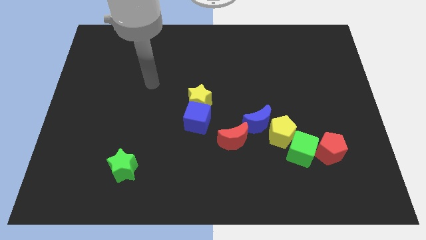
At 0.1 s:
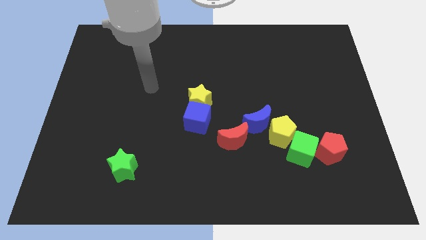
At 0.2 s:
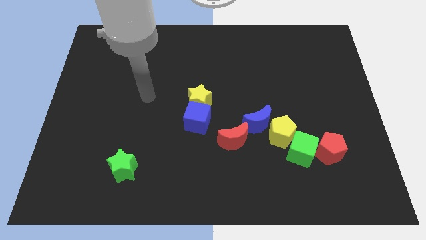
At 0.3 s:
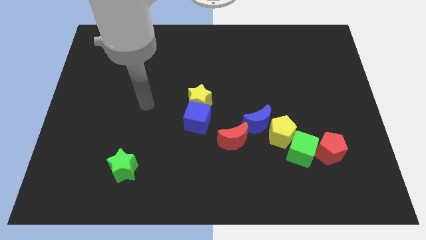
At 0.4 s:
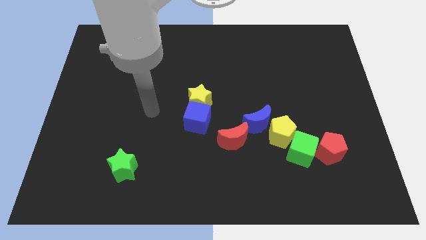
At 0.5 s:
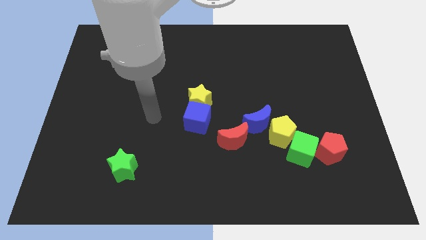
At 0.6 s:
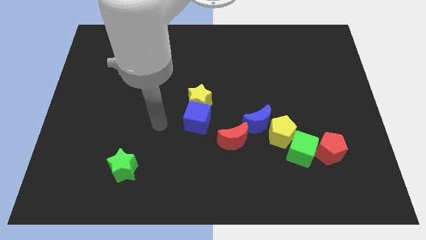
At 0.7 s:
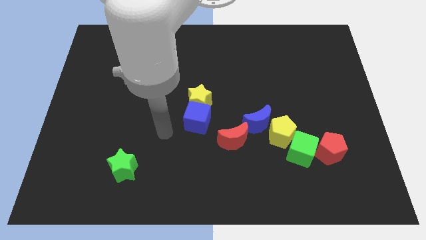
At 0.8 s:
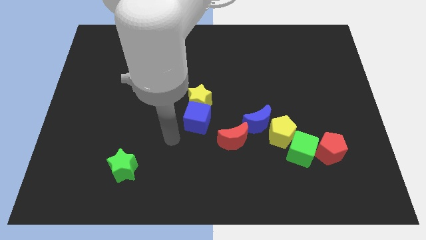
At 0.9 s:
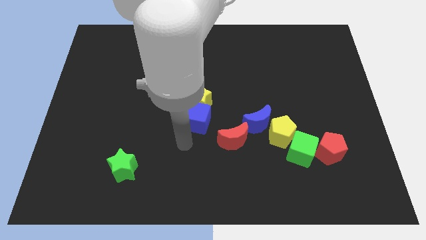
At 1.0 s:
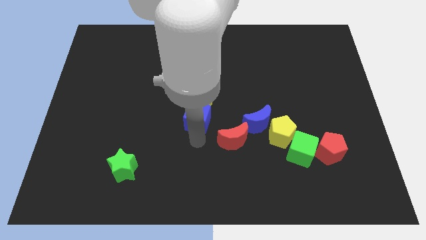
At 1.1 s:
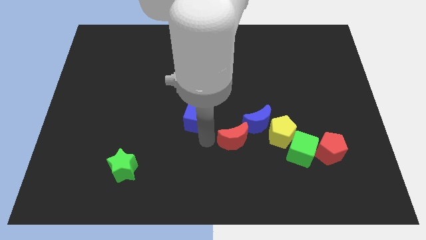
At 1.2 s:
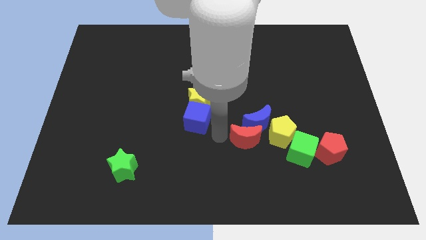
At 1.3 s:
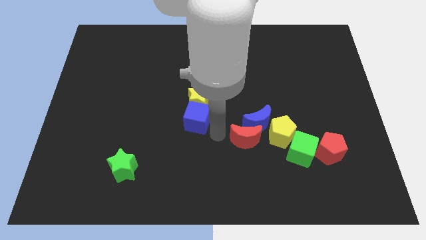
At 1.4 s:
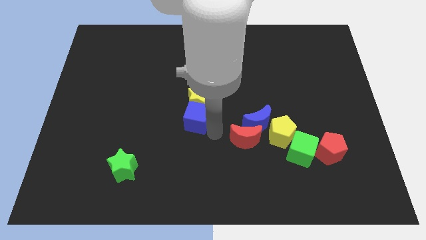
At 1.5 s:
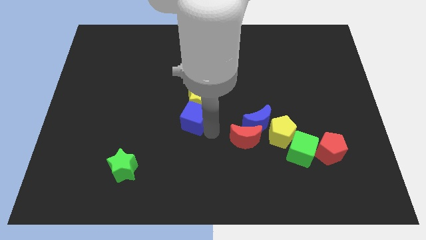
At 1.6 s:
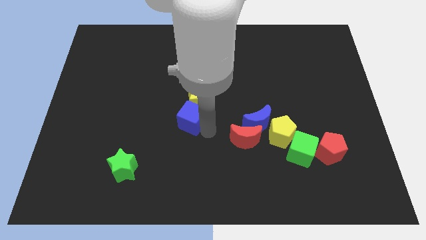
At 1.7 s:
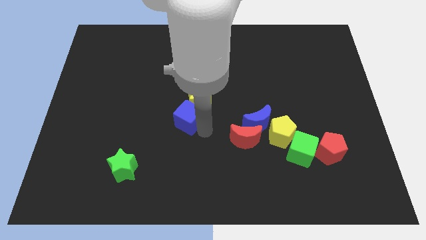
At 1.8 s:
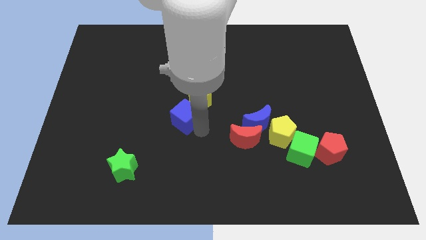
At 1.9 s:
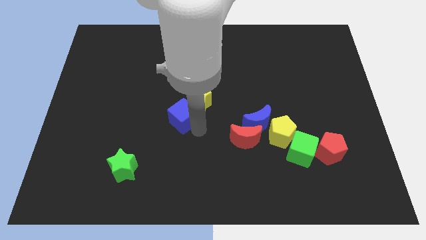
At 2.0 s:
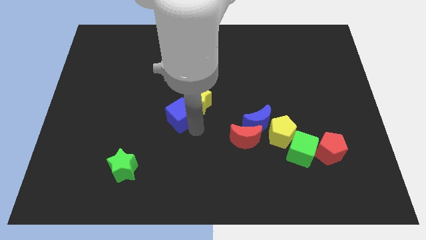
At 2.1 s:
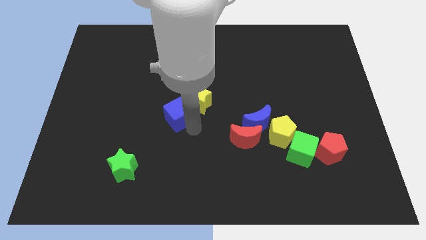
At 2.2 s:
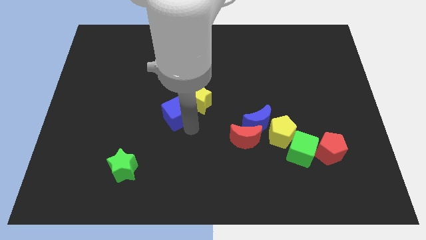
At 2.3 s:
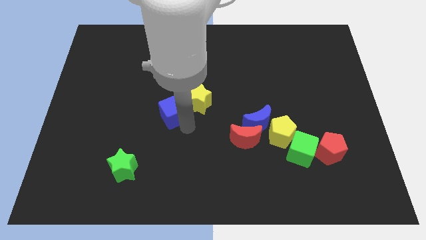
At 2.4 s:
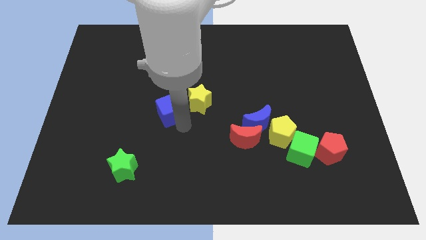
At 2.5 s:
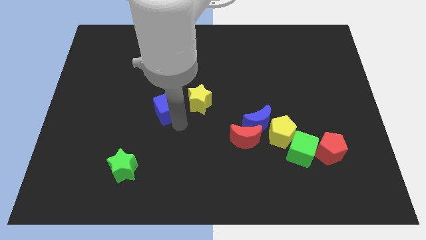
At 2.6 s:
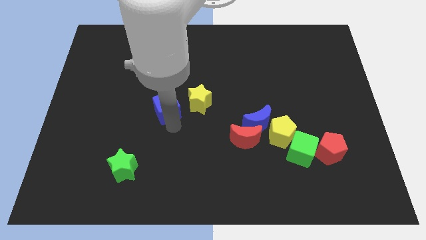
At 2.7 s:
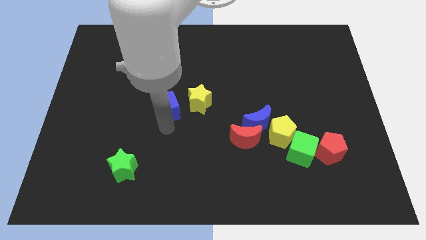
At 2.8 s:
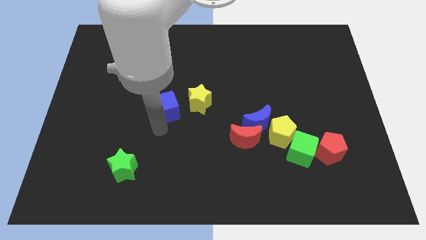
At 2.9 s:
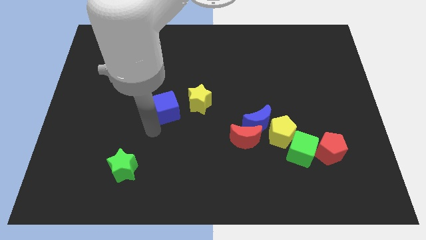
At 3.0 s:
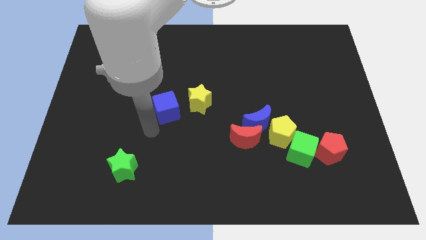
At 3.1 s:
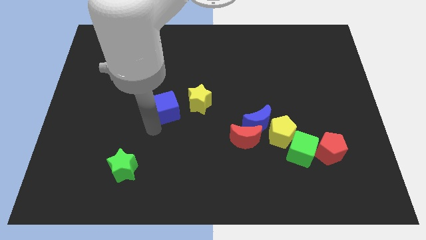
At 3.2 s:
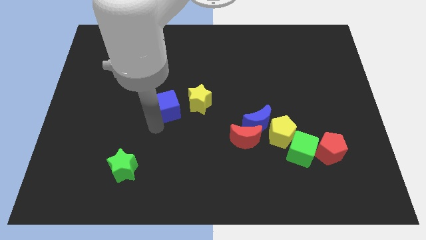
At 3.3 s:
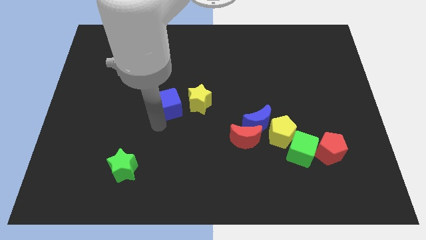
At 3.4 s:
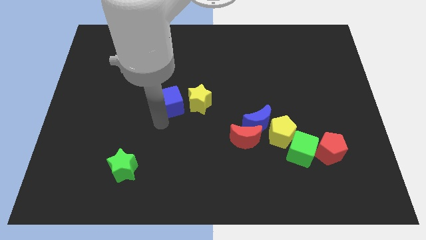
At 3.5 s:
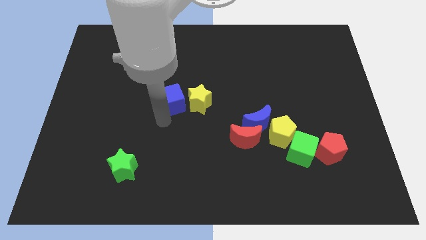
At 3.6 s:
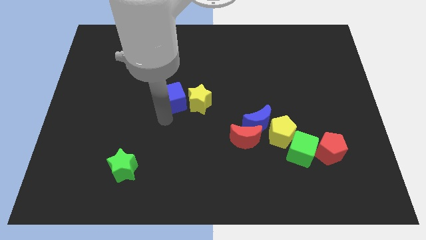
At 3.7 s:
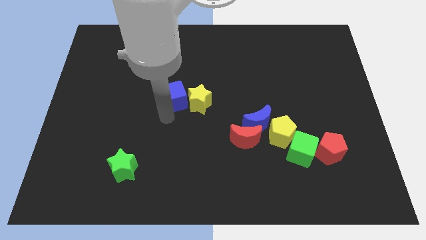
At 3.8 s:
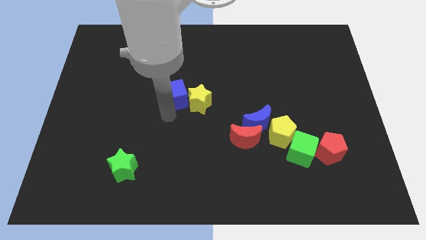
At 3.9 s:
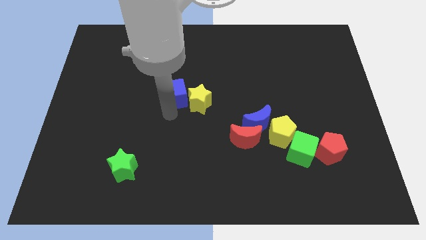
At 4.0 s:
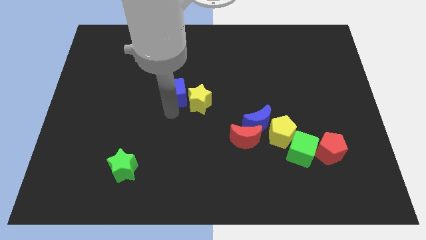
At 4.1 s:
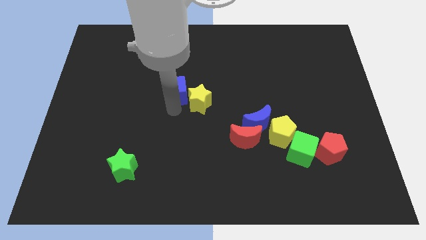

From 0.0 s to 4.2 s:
slide the blue cube a bit up

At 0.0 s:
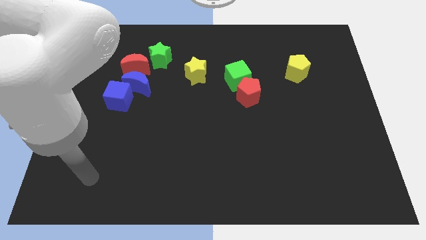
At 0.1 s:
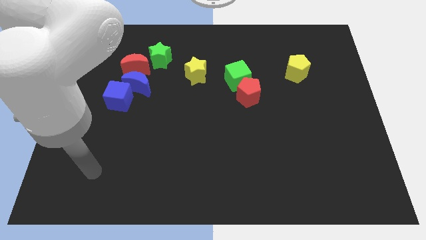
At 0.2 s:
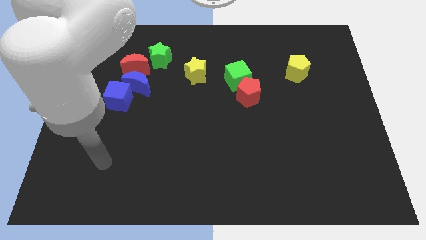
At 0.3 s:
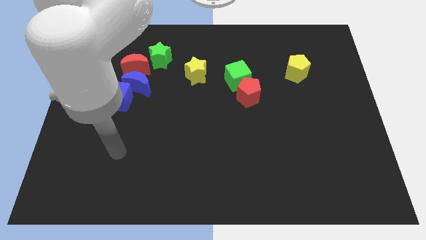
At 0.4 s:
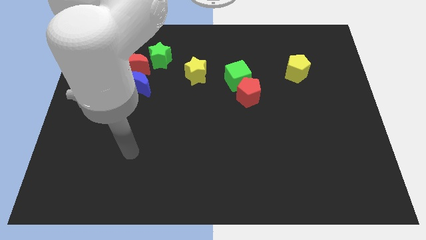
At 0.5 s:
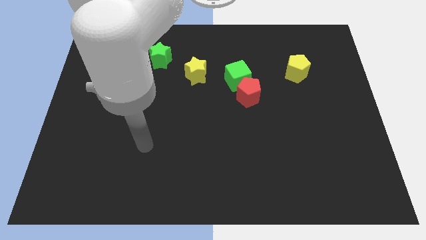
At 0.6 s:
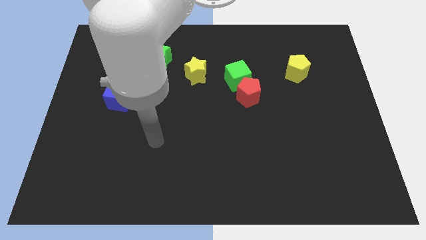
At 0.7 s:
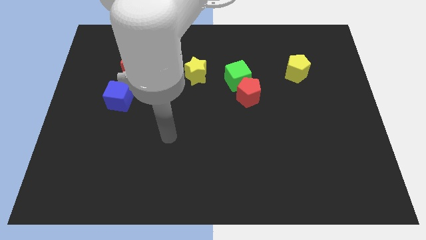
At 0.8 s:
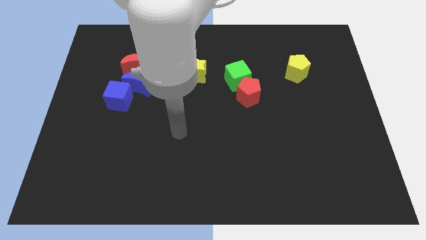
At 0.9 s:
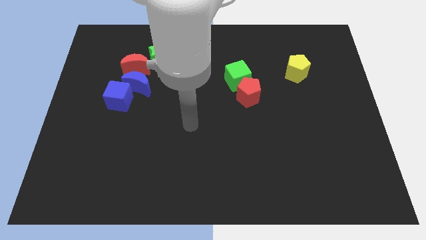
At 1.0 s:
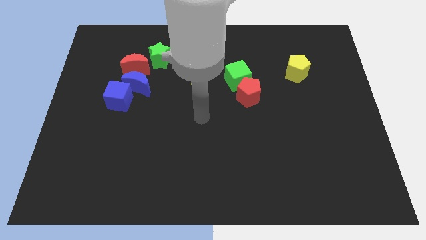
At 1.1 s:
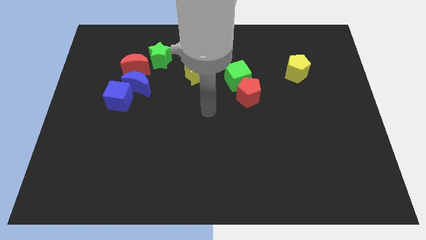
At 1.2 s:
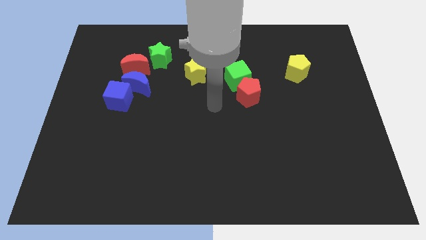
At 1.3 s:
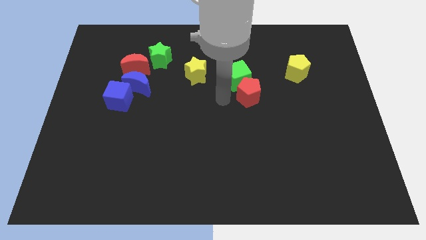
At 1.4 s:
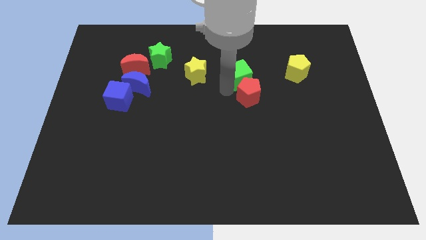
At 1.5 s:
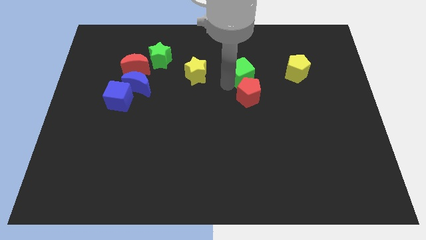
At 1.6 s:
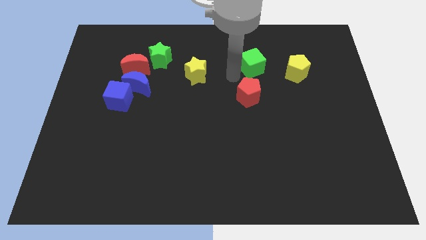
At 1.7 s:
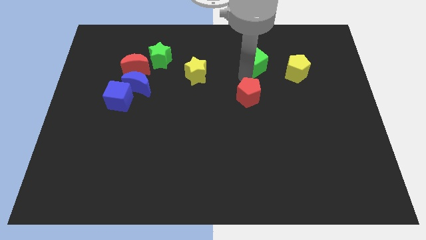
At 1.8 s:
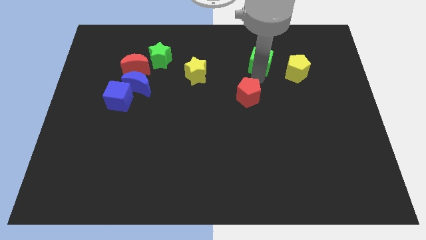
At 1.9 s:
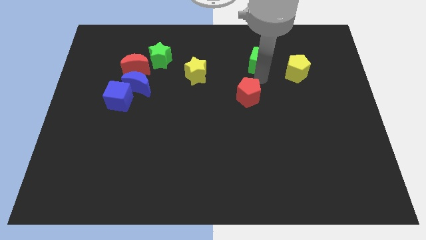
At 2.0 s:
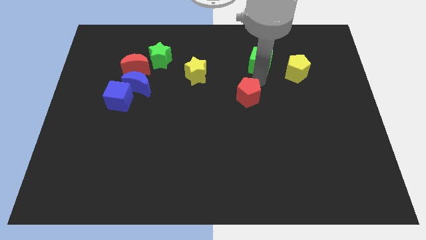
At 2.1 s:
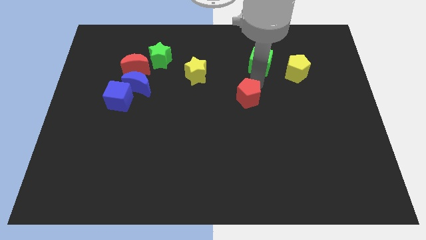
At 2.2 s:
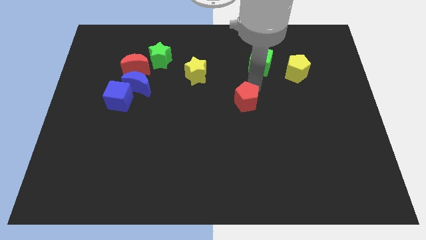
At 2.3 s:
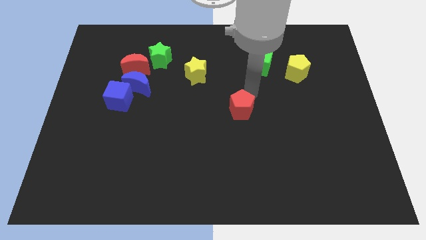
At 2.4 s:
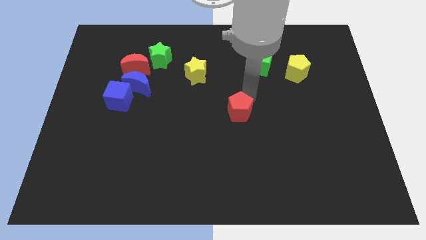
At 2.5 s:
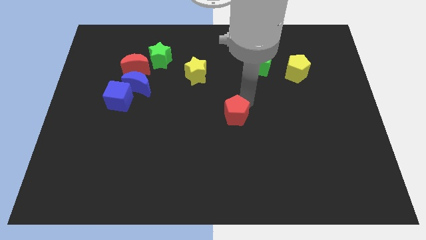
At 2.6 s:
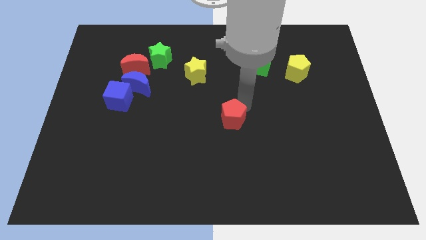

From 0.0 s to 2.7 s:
slide the red pentagon a little bit downwards and then to the left

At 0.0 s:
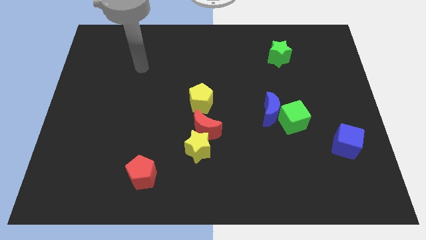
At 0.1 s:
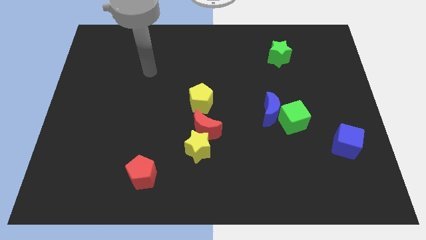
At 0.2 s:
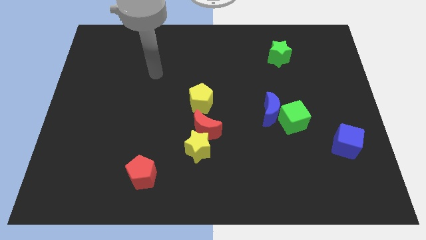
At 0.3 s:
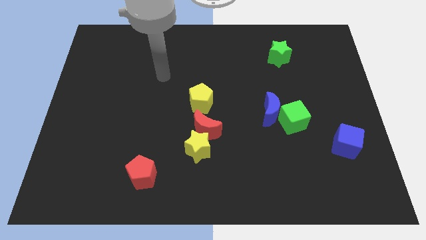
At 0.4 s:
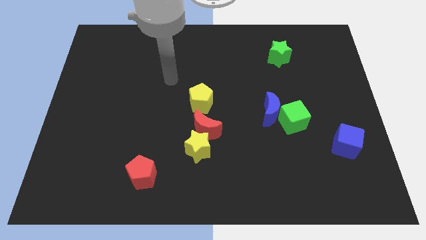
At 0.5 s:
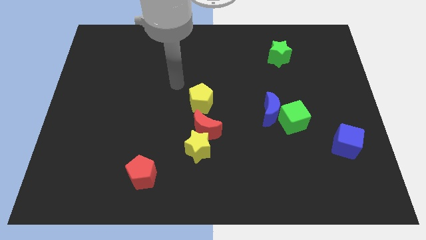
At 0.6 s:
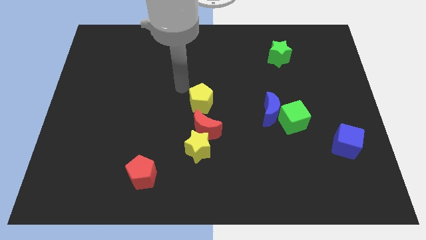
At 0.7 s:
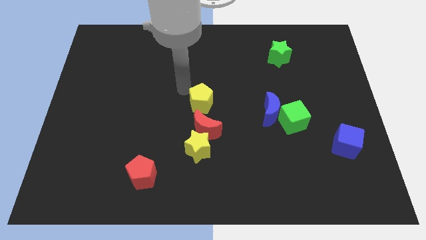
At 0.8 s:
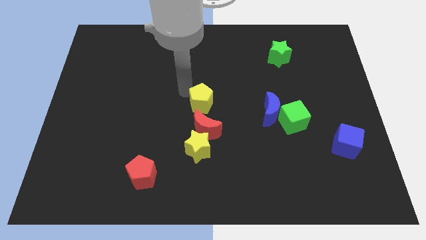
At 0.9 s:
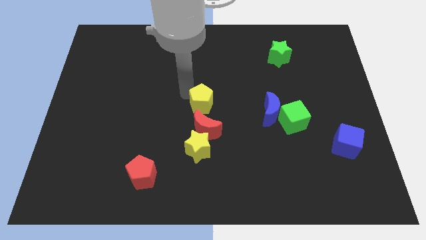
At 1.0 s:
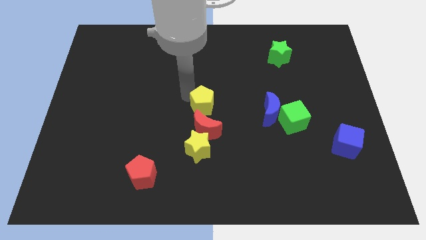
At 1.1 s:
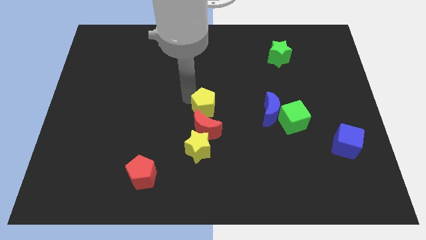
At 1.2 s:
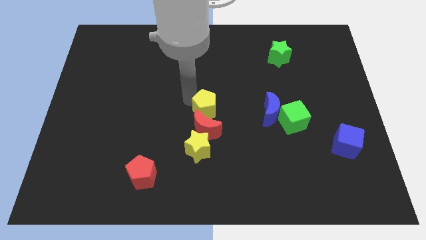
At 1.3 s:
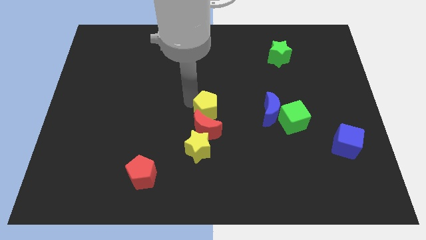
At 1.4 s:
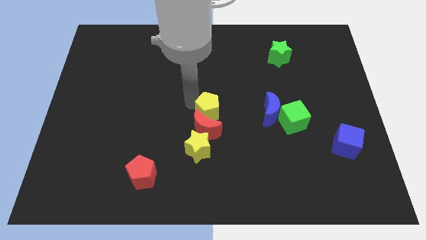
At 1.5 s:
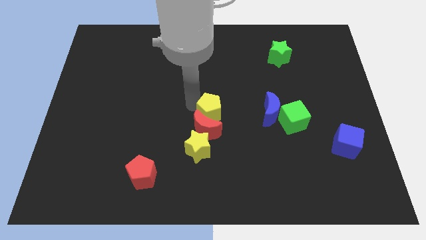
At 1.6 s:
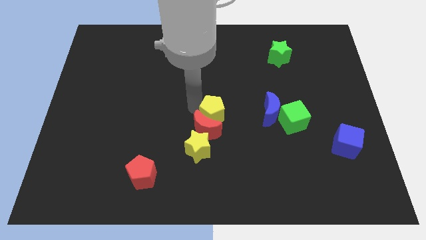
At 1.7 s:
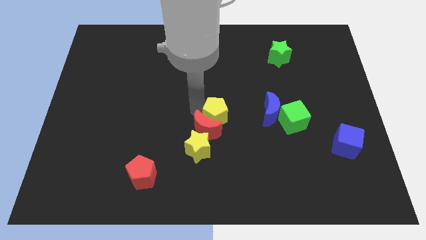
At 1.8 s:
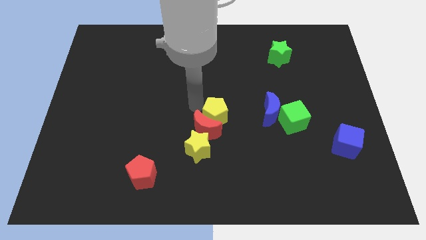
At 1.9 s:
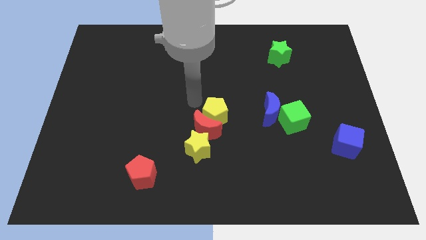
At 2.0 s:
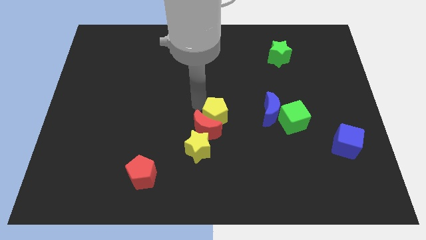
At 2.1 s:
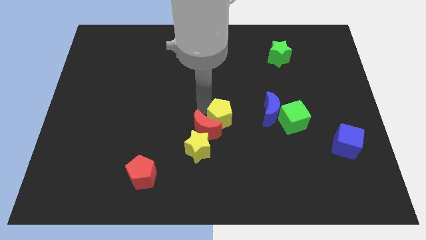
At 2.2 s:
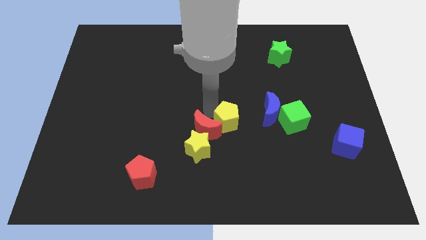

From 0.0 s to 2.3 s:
slide the yellow pentagon diagonally down and to the right a bit
